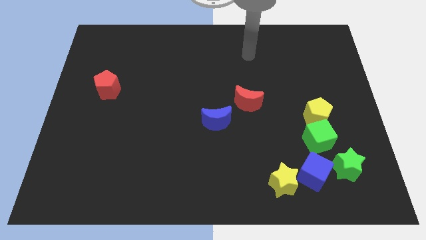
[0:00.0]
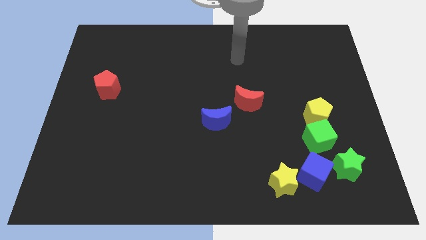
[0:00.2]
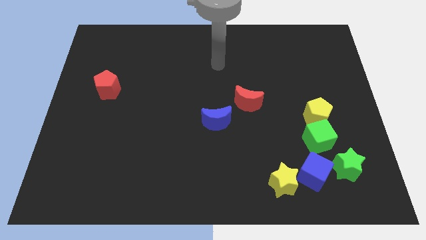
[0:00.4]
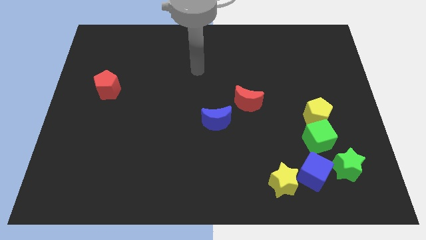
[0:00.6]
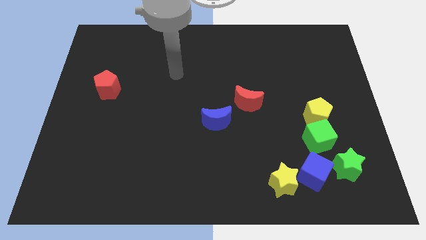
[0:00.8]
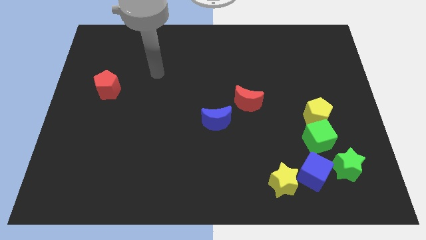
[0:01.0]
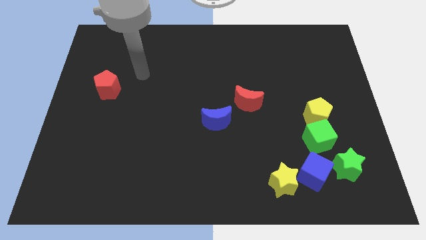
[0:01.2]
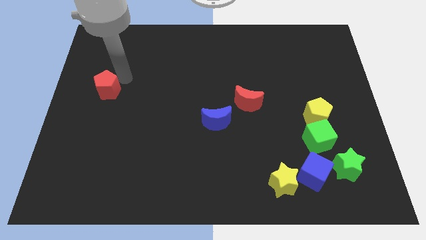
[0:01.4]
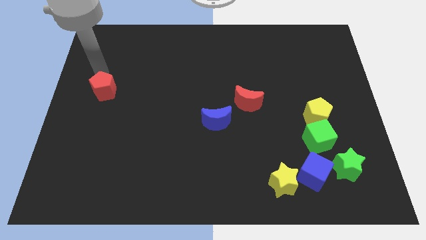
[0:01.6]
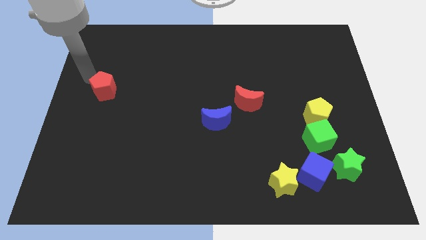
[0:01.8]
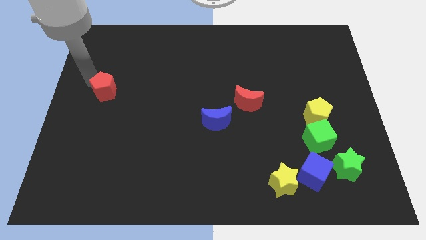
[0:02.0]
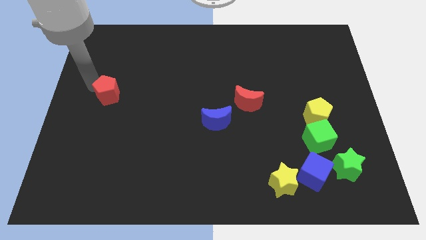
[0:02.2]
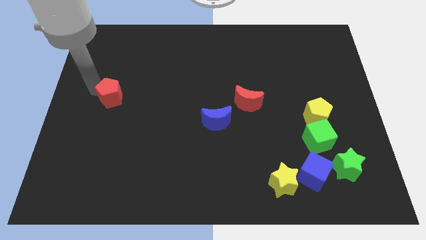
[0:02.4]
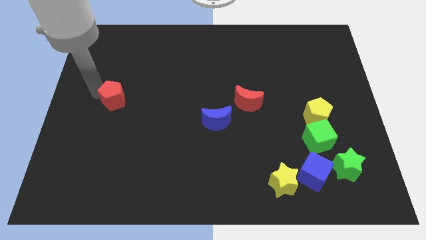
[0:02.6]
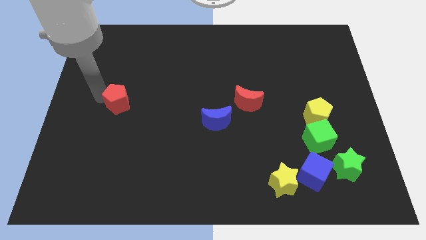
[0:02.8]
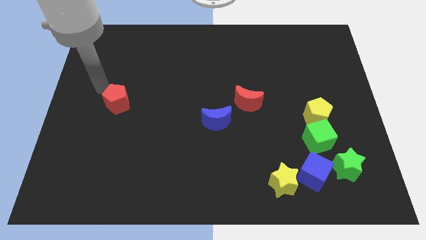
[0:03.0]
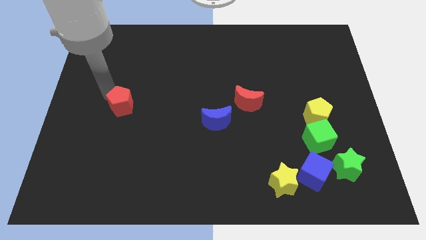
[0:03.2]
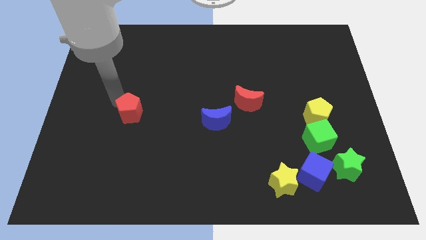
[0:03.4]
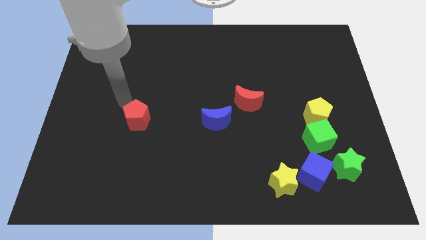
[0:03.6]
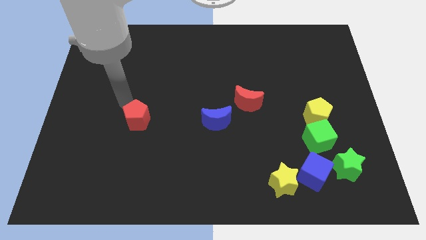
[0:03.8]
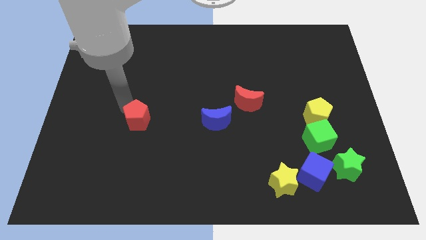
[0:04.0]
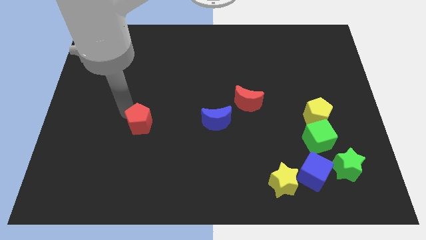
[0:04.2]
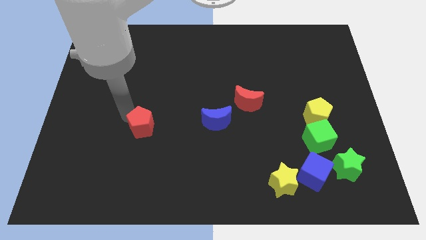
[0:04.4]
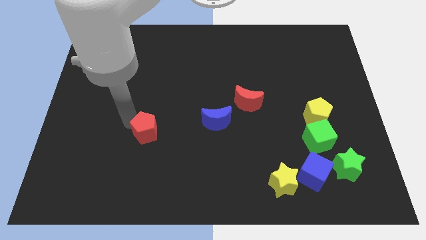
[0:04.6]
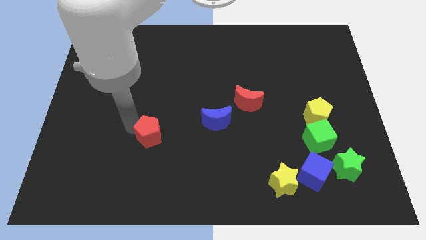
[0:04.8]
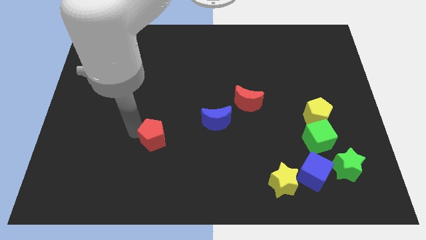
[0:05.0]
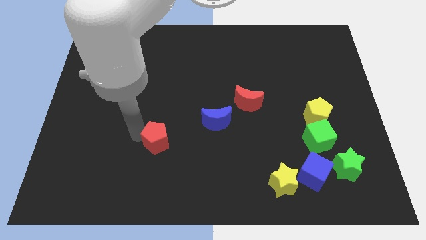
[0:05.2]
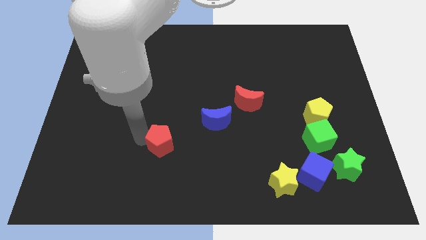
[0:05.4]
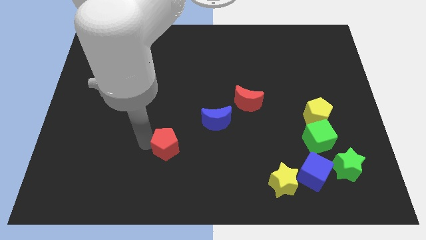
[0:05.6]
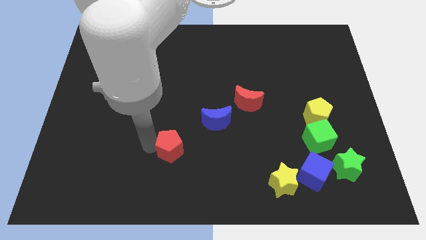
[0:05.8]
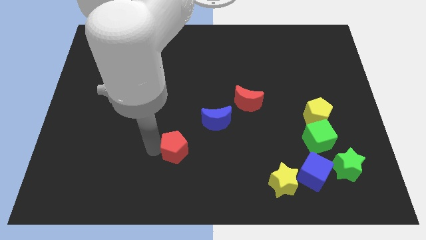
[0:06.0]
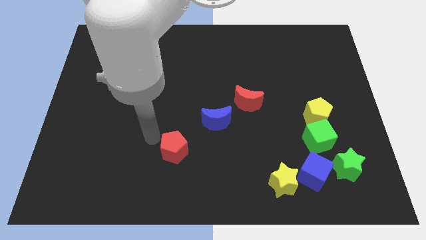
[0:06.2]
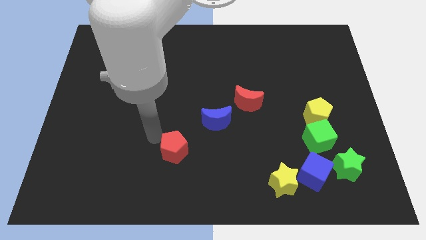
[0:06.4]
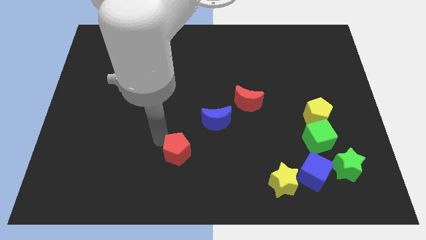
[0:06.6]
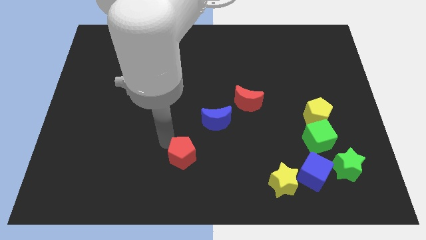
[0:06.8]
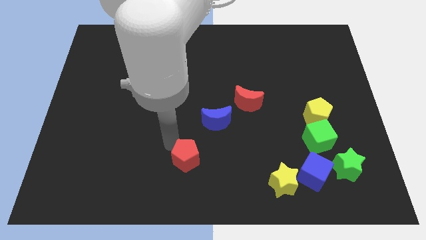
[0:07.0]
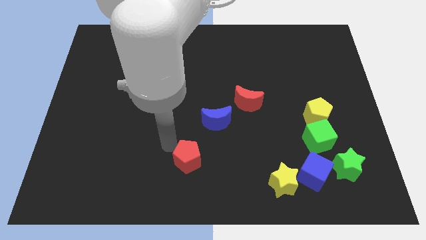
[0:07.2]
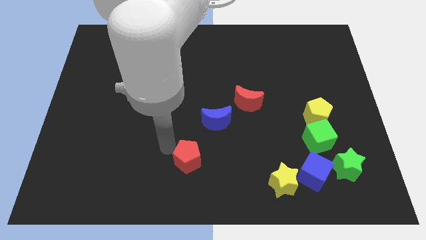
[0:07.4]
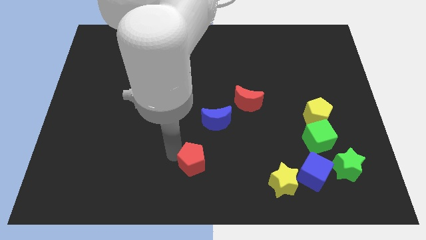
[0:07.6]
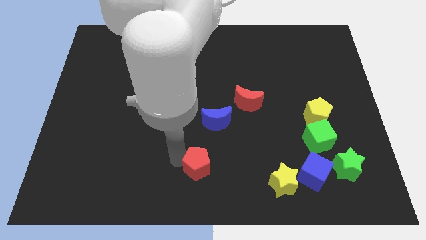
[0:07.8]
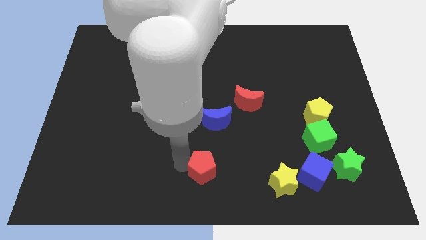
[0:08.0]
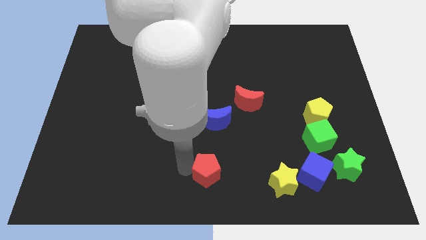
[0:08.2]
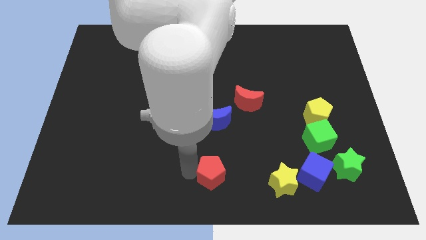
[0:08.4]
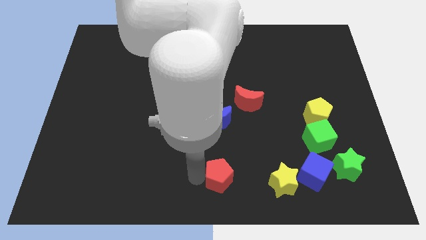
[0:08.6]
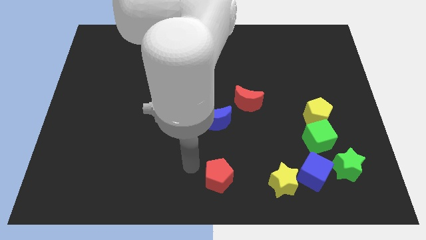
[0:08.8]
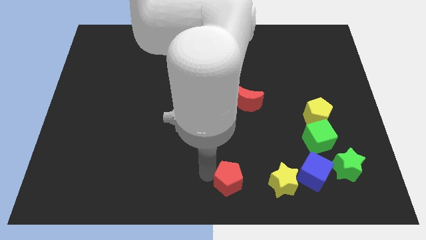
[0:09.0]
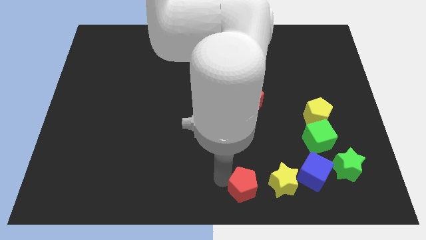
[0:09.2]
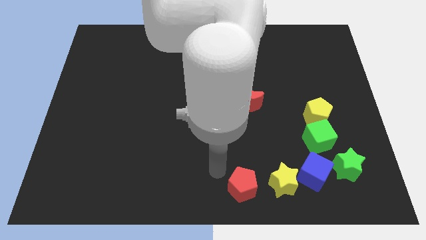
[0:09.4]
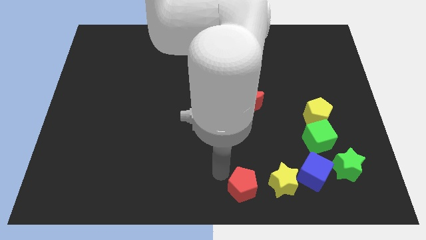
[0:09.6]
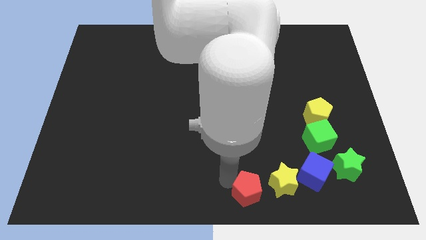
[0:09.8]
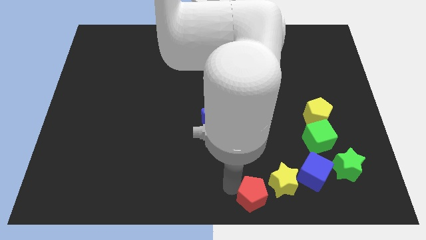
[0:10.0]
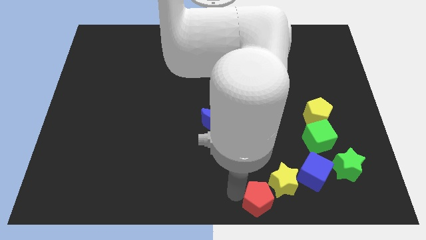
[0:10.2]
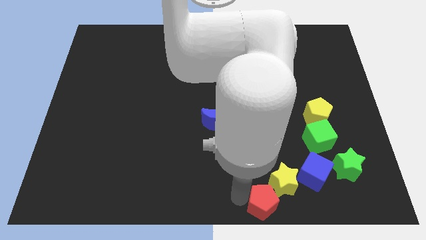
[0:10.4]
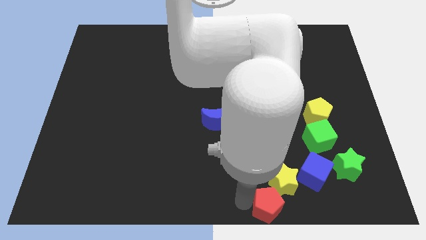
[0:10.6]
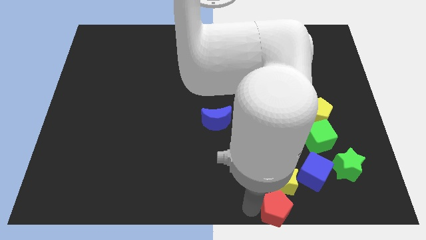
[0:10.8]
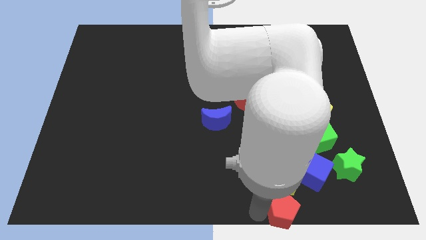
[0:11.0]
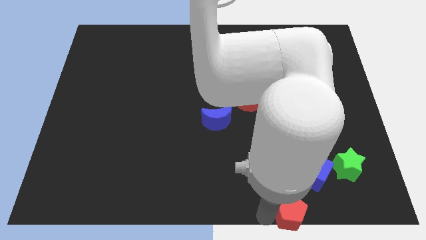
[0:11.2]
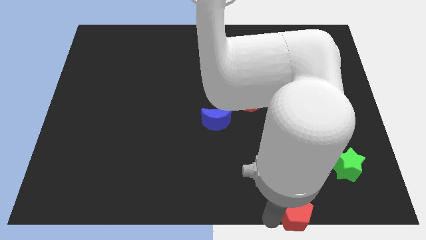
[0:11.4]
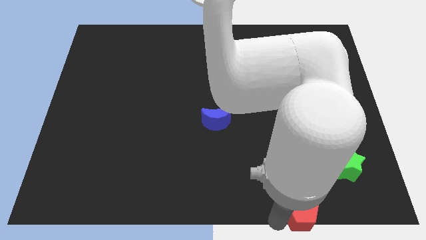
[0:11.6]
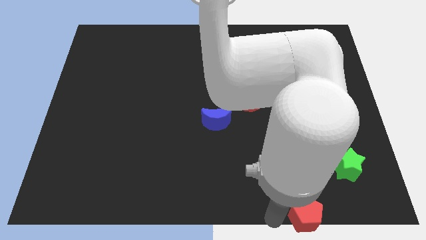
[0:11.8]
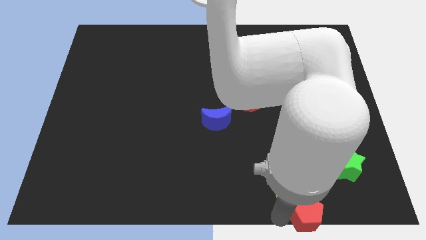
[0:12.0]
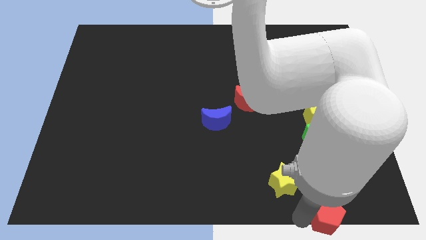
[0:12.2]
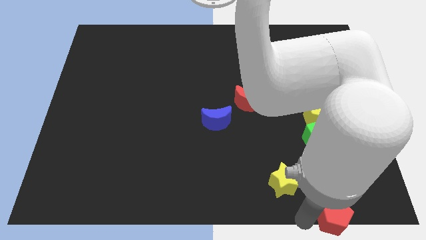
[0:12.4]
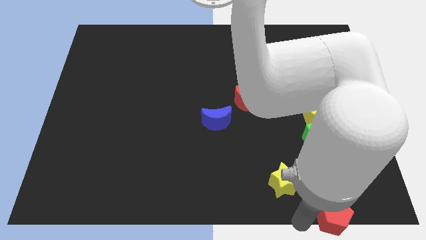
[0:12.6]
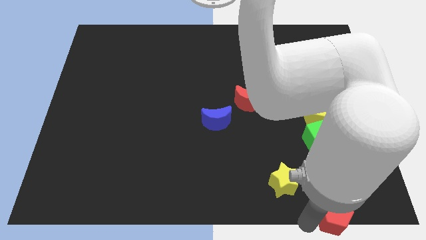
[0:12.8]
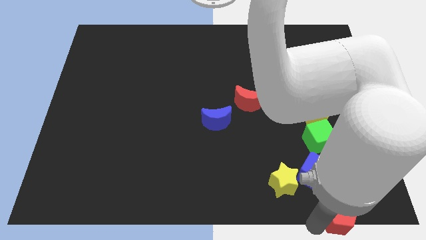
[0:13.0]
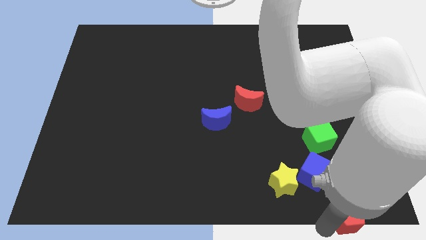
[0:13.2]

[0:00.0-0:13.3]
put the red pentagon to the lower right corner
